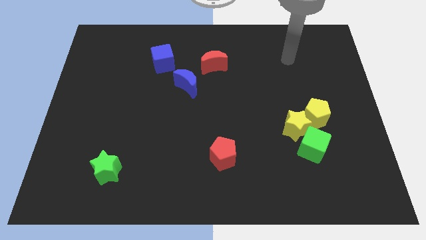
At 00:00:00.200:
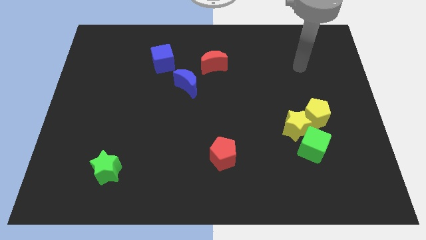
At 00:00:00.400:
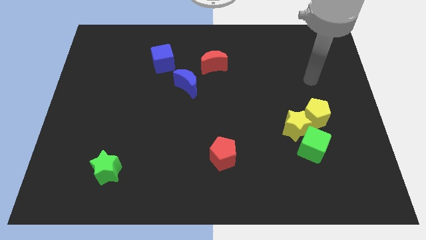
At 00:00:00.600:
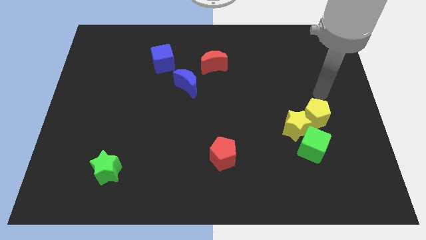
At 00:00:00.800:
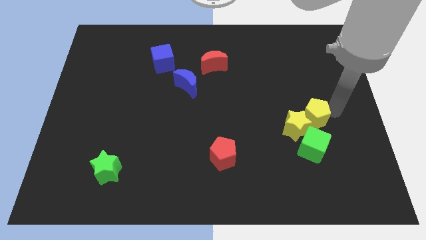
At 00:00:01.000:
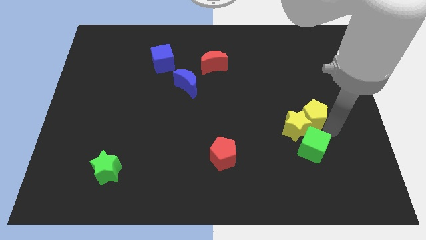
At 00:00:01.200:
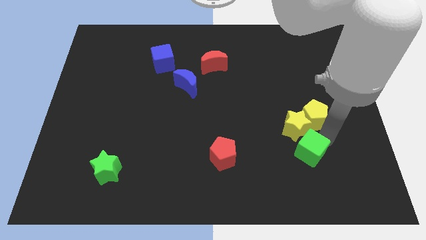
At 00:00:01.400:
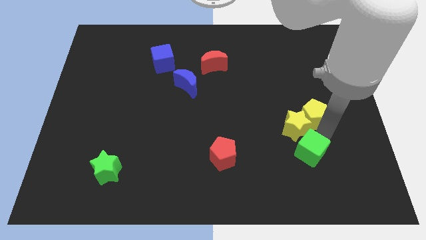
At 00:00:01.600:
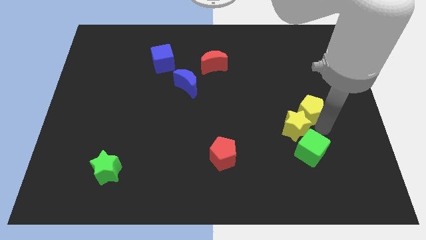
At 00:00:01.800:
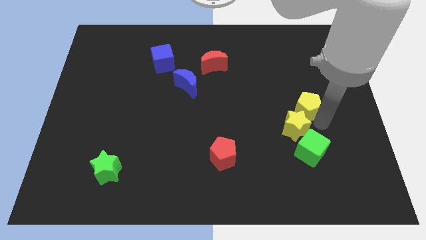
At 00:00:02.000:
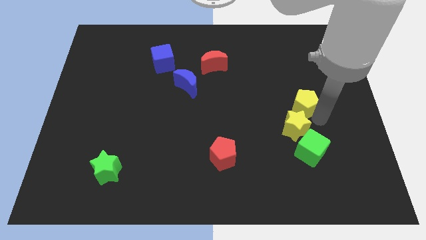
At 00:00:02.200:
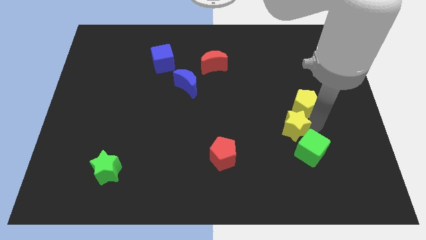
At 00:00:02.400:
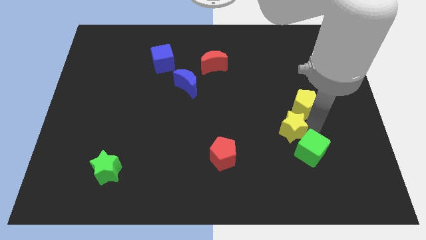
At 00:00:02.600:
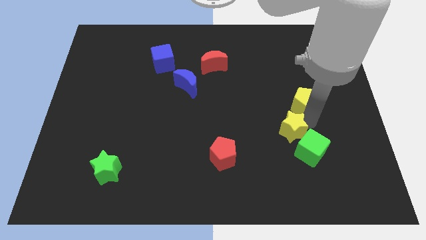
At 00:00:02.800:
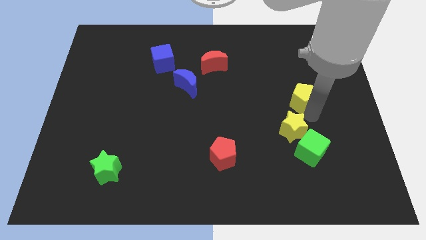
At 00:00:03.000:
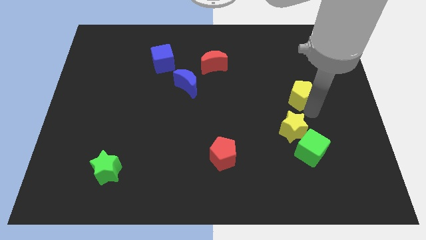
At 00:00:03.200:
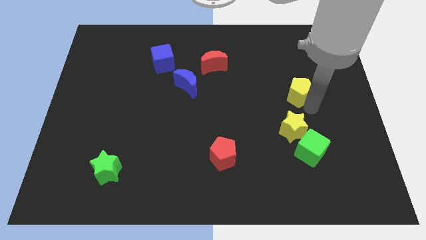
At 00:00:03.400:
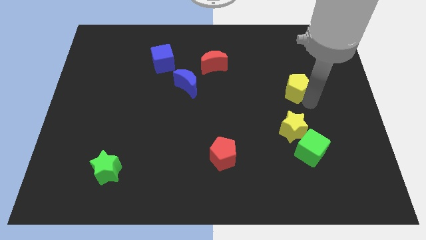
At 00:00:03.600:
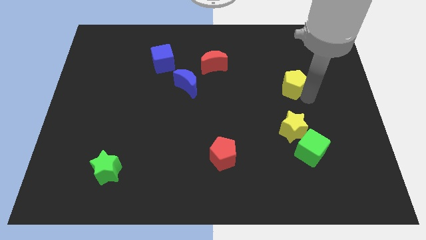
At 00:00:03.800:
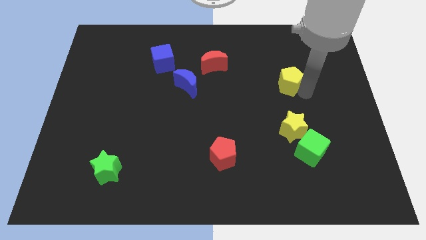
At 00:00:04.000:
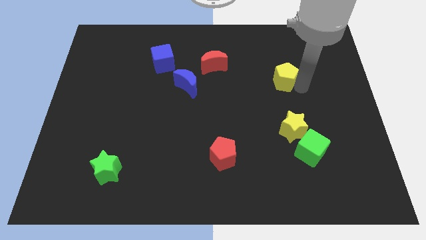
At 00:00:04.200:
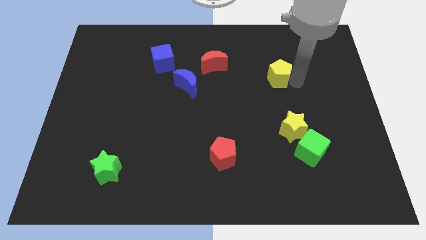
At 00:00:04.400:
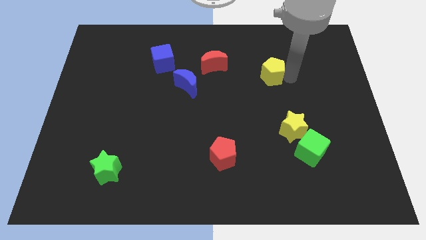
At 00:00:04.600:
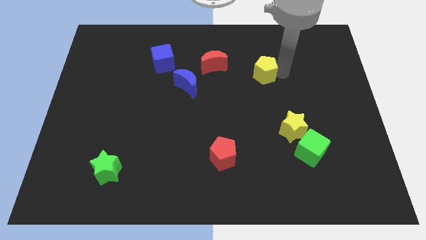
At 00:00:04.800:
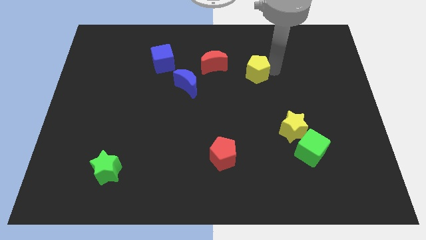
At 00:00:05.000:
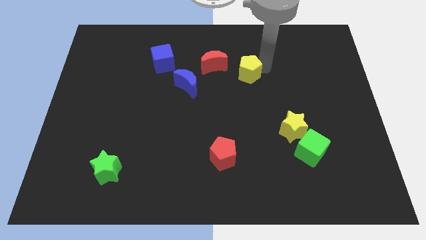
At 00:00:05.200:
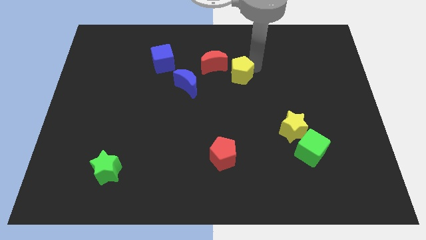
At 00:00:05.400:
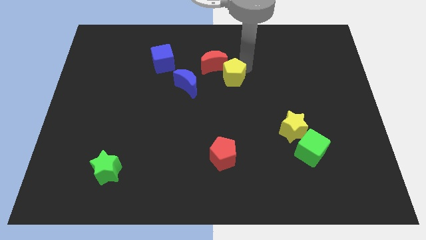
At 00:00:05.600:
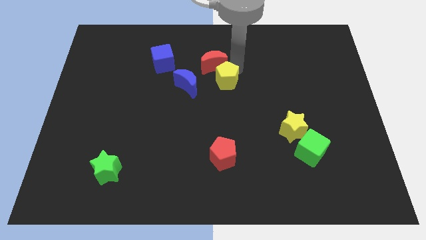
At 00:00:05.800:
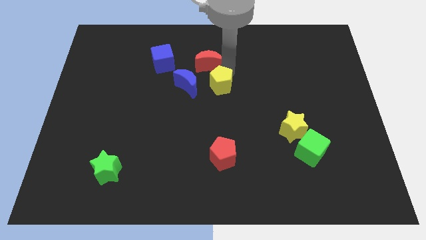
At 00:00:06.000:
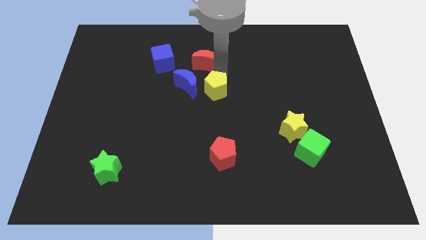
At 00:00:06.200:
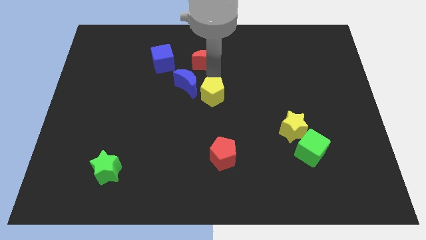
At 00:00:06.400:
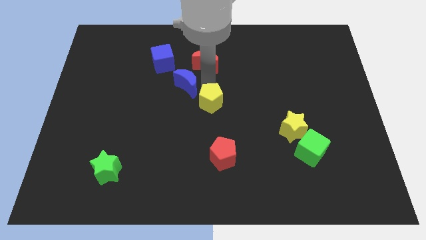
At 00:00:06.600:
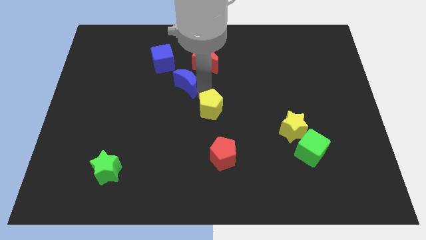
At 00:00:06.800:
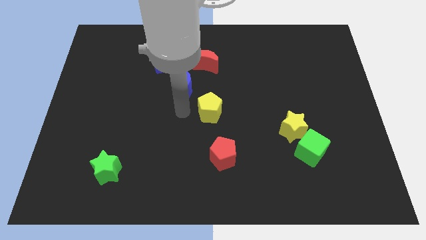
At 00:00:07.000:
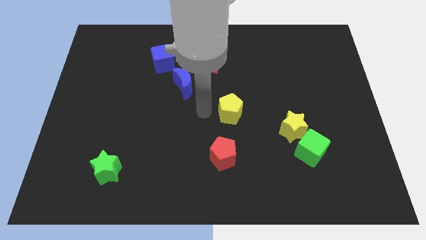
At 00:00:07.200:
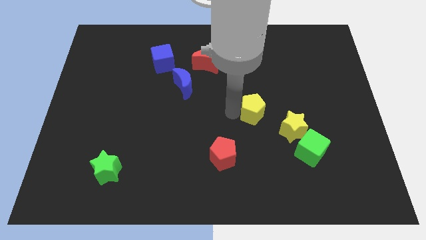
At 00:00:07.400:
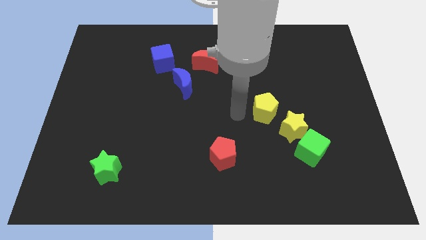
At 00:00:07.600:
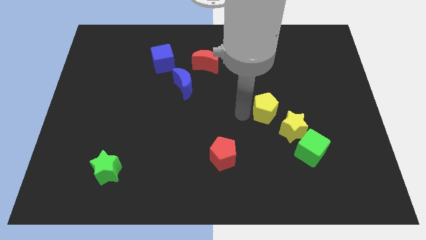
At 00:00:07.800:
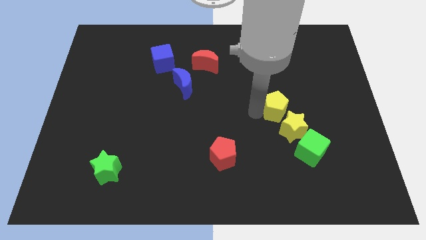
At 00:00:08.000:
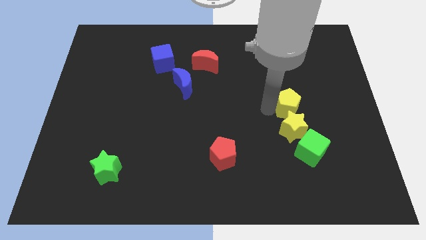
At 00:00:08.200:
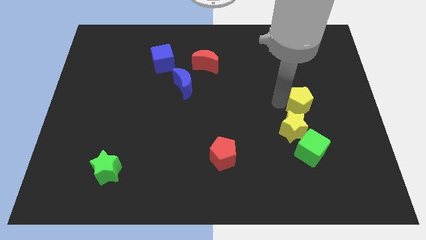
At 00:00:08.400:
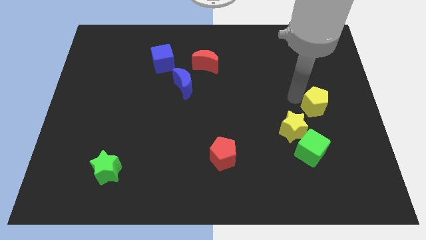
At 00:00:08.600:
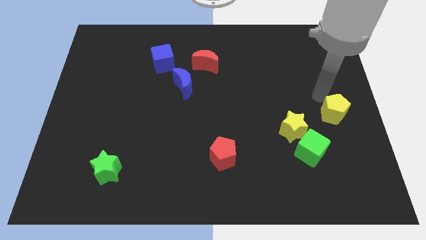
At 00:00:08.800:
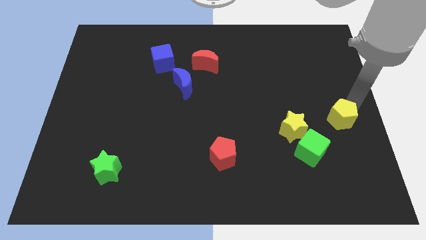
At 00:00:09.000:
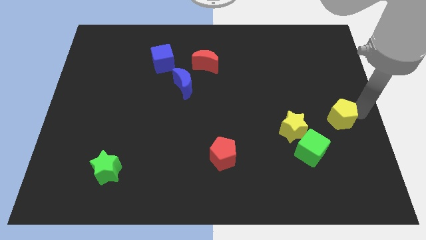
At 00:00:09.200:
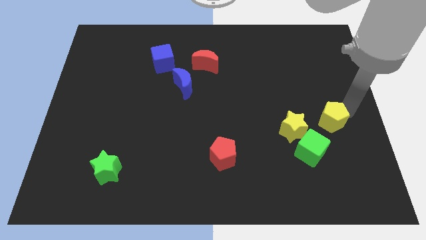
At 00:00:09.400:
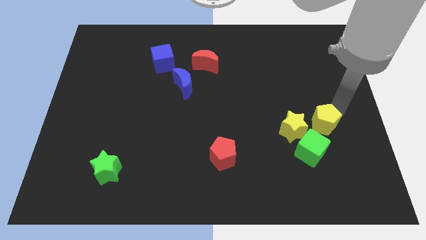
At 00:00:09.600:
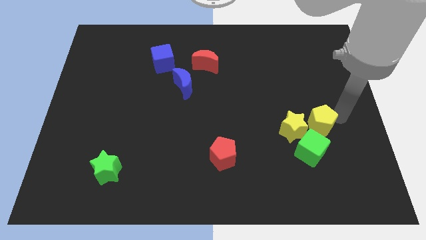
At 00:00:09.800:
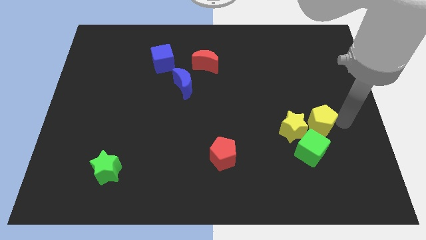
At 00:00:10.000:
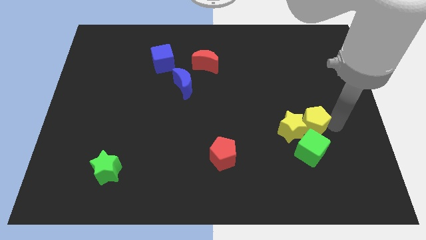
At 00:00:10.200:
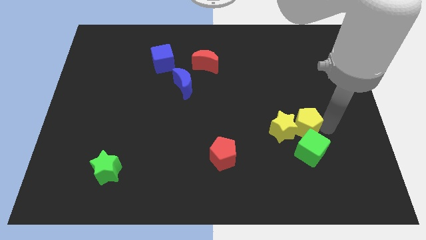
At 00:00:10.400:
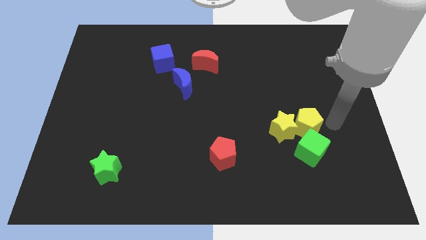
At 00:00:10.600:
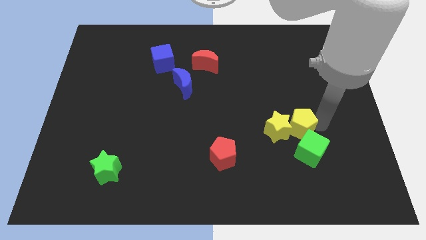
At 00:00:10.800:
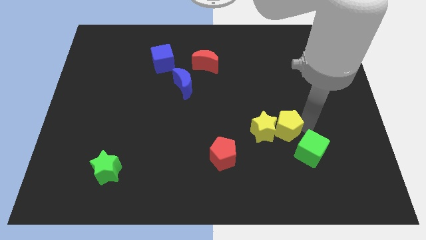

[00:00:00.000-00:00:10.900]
slightly slide the yellow pentagon downwards and left

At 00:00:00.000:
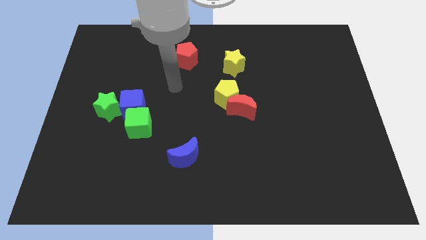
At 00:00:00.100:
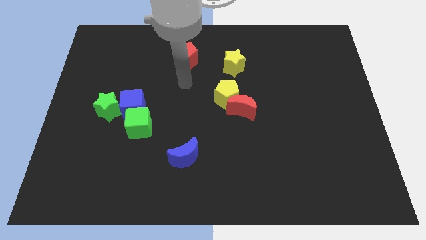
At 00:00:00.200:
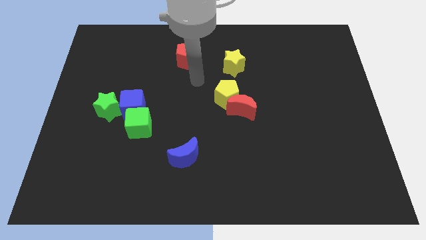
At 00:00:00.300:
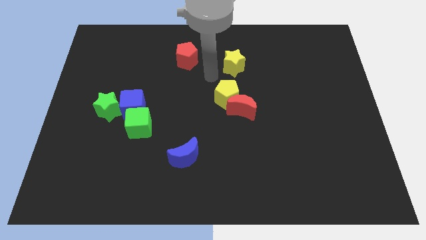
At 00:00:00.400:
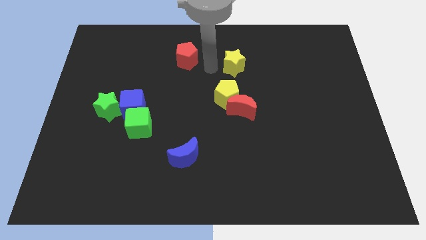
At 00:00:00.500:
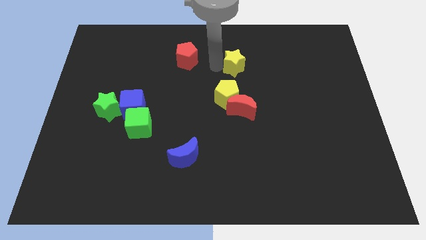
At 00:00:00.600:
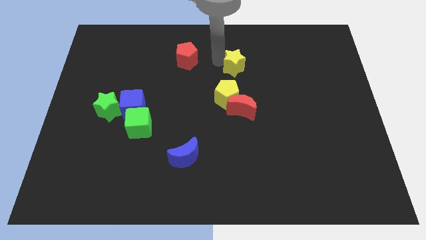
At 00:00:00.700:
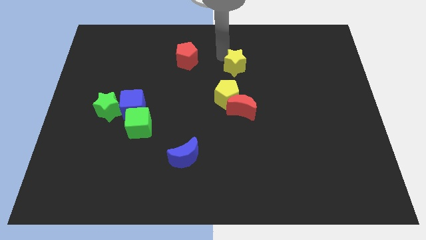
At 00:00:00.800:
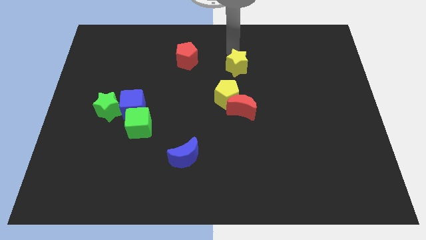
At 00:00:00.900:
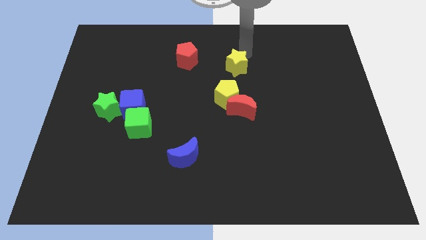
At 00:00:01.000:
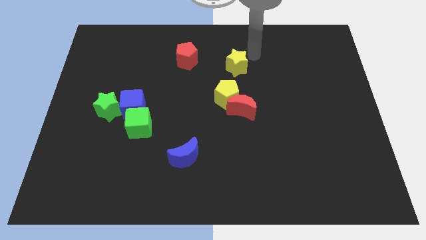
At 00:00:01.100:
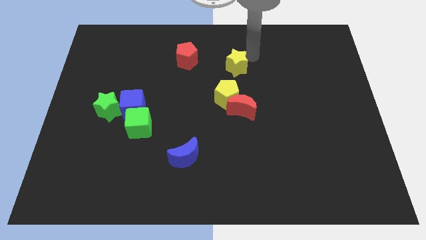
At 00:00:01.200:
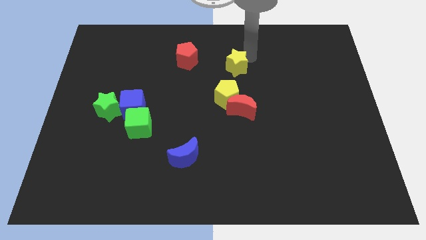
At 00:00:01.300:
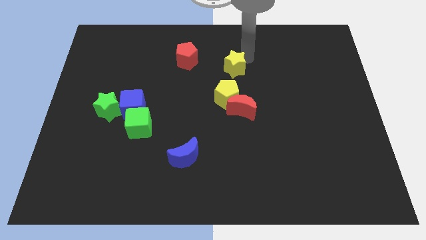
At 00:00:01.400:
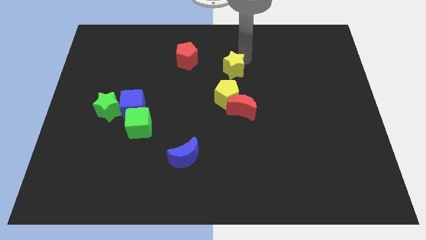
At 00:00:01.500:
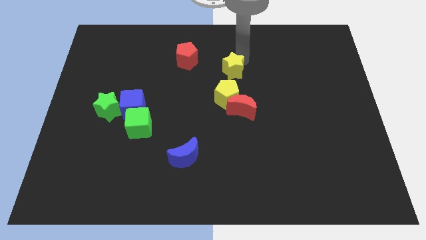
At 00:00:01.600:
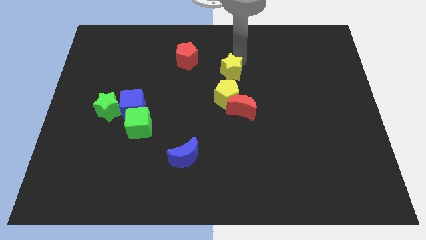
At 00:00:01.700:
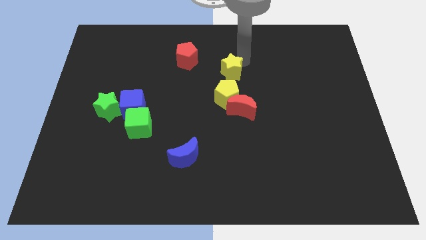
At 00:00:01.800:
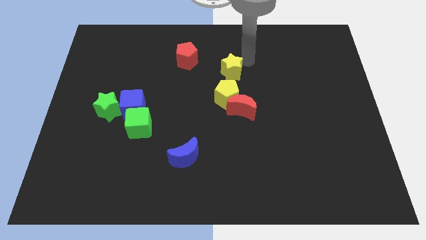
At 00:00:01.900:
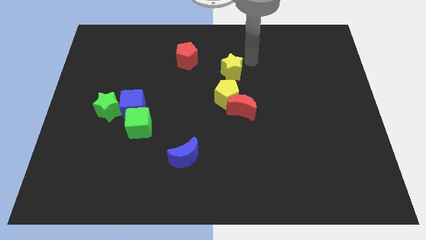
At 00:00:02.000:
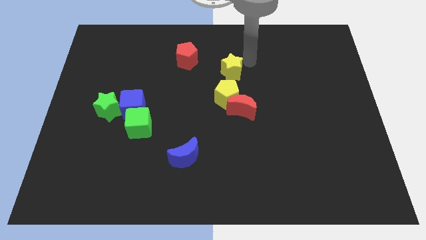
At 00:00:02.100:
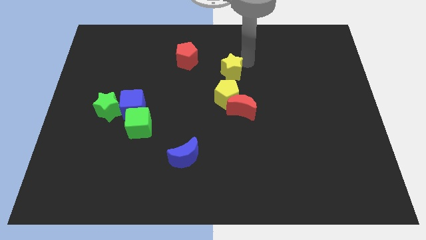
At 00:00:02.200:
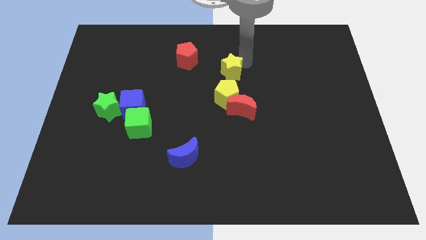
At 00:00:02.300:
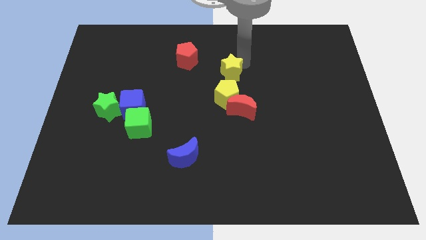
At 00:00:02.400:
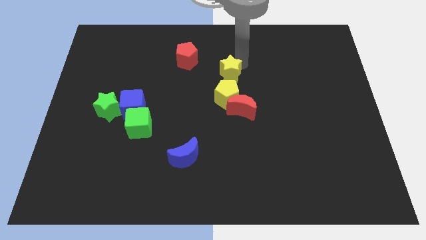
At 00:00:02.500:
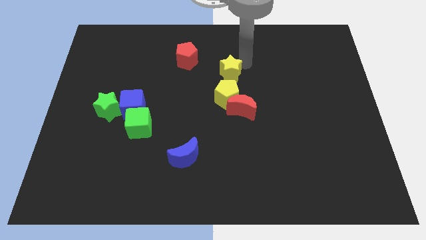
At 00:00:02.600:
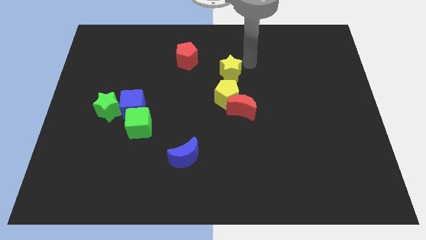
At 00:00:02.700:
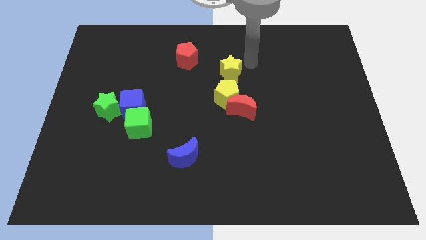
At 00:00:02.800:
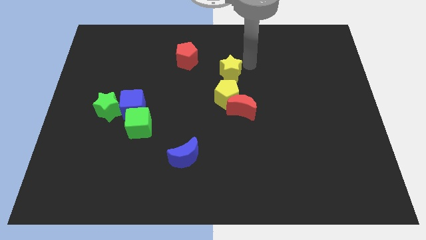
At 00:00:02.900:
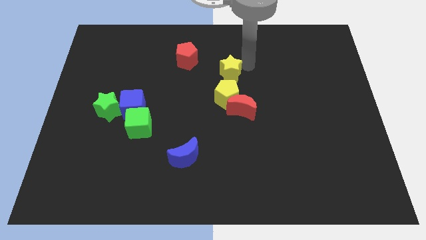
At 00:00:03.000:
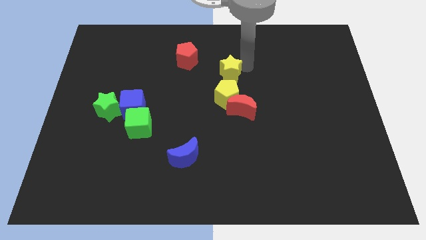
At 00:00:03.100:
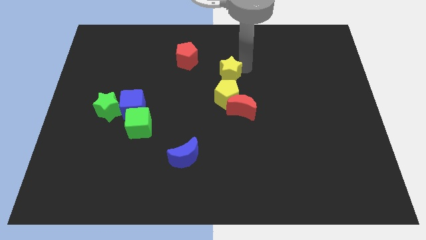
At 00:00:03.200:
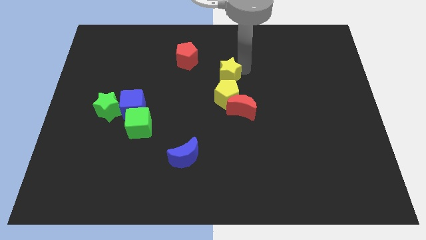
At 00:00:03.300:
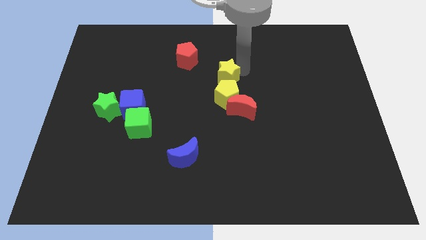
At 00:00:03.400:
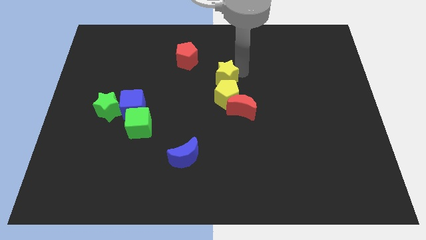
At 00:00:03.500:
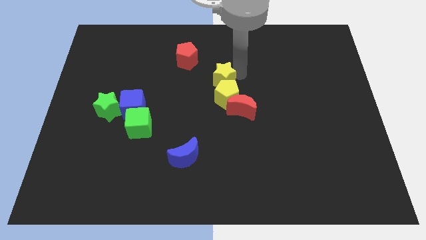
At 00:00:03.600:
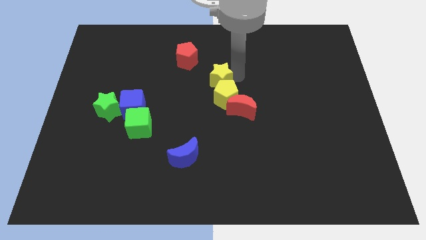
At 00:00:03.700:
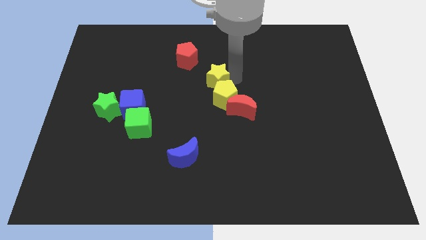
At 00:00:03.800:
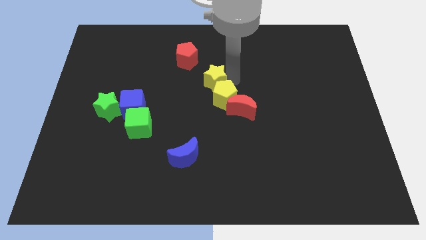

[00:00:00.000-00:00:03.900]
move the yellow star down and then to the left somewhat
